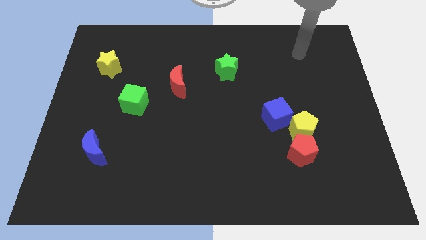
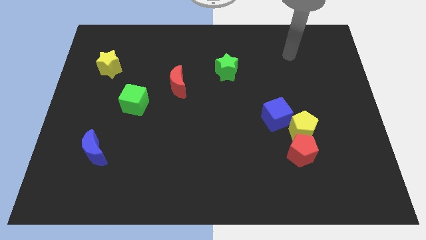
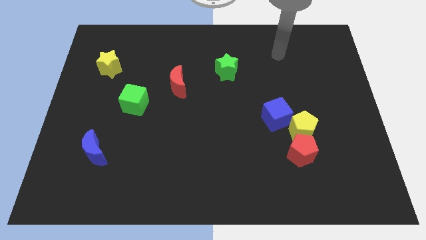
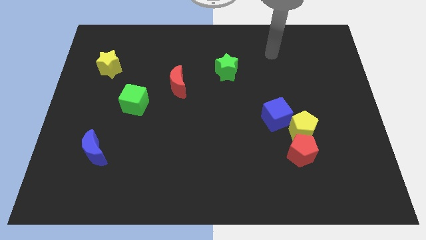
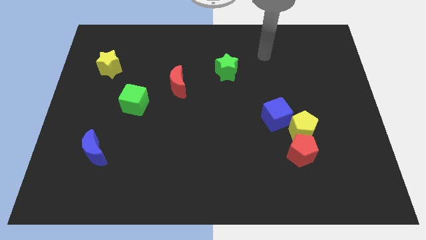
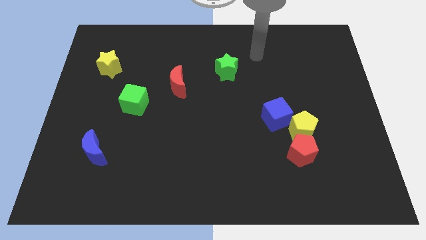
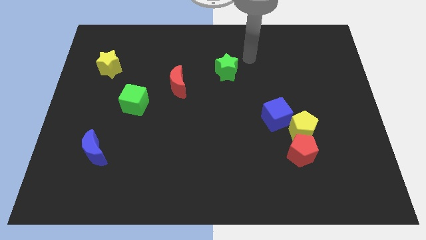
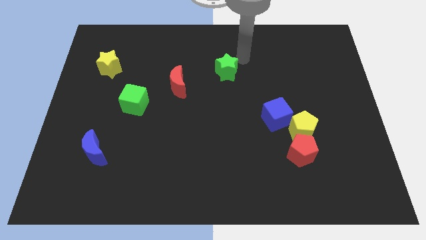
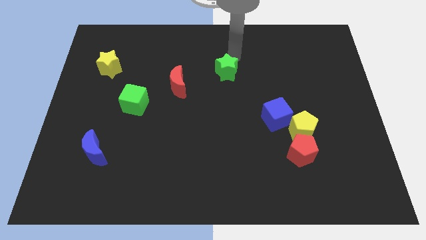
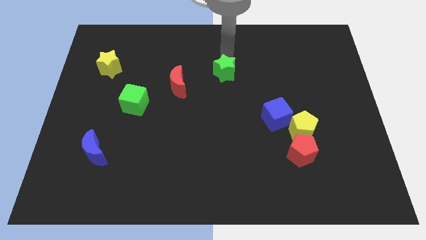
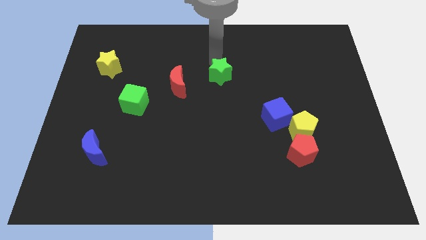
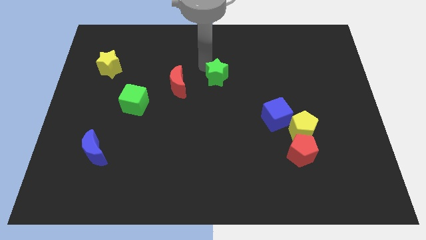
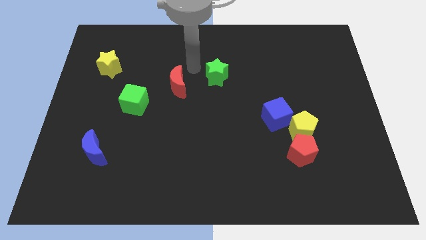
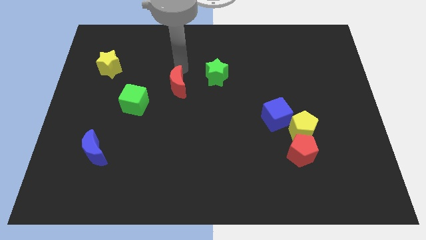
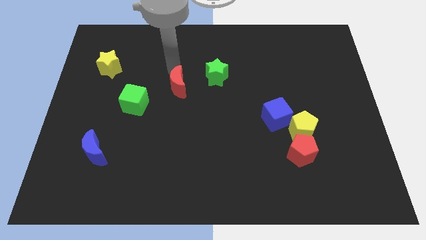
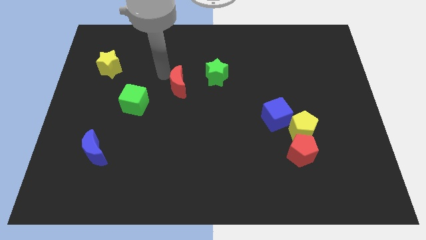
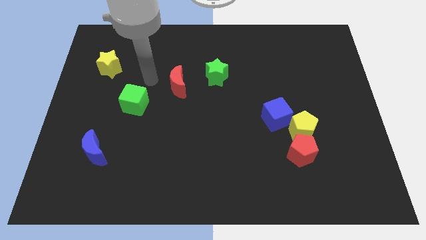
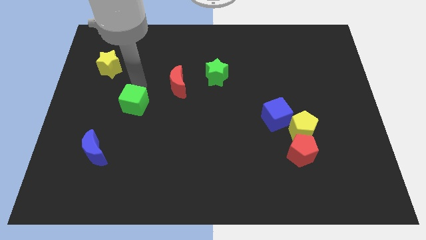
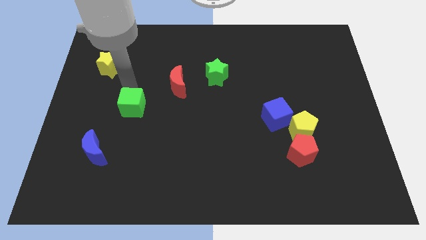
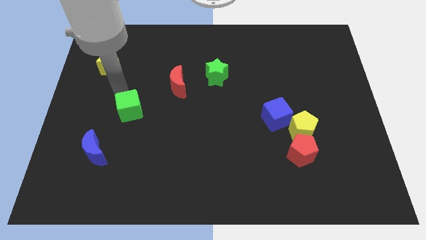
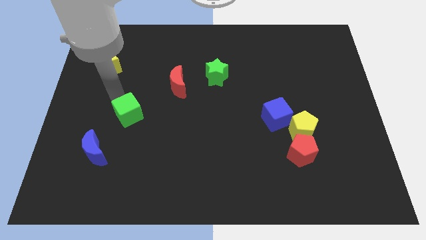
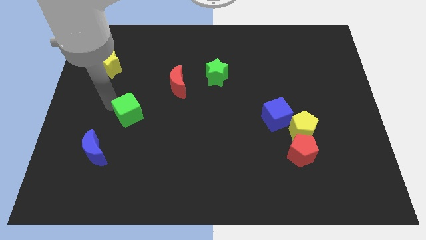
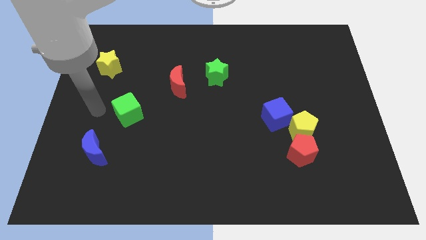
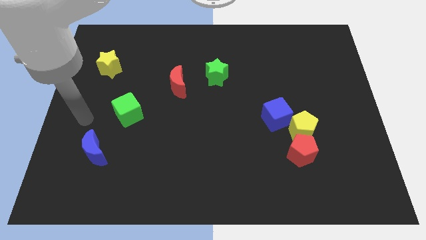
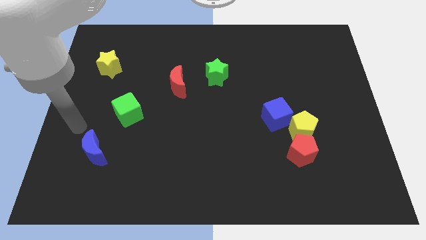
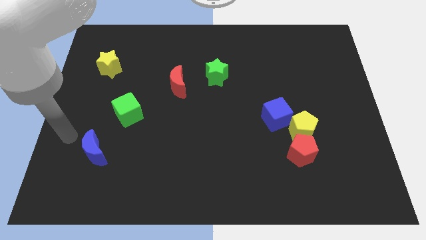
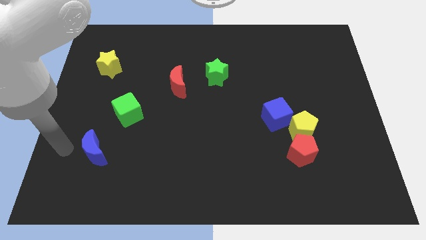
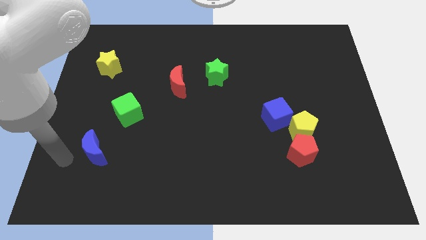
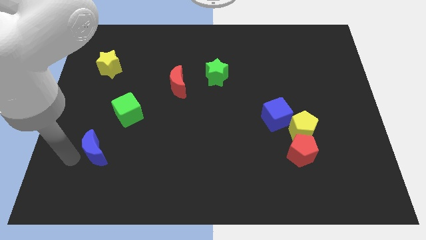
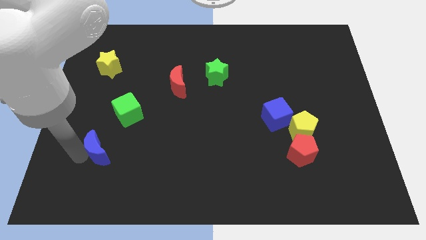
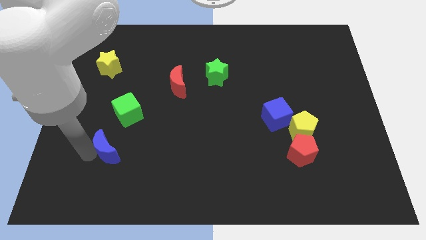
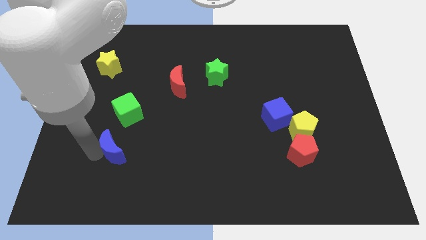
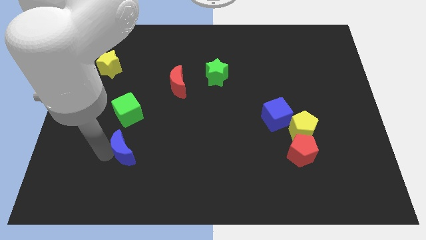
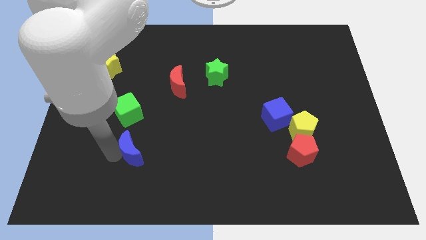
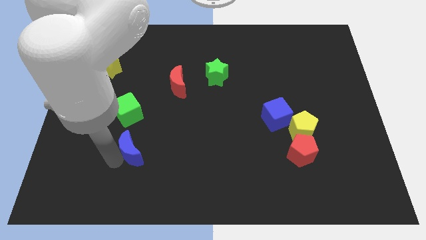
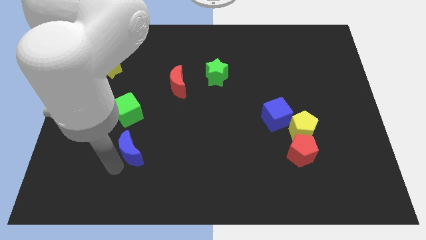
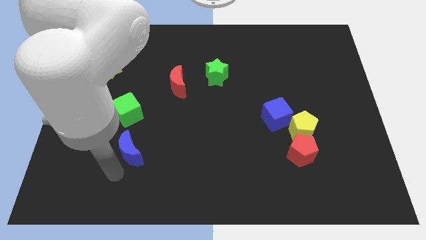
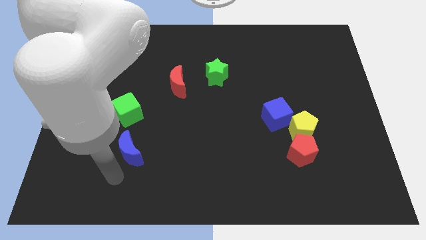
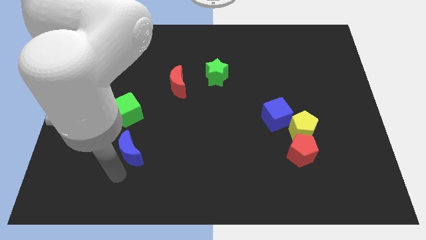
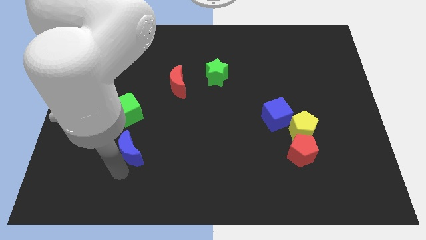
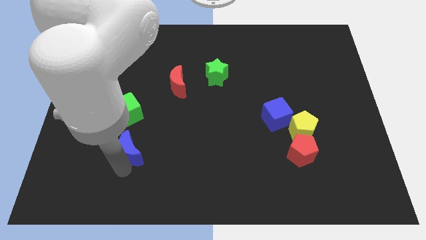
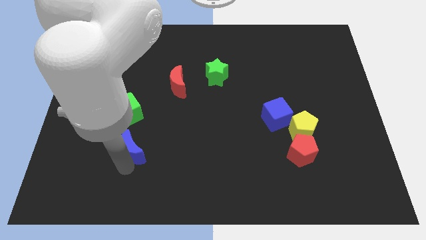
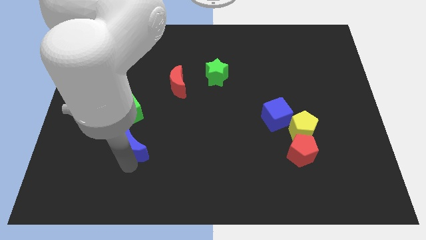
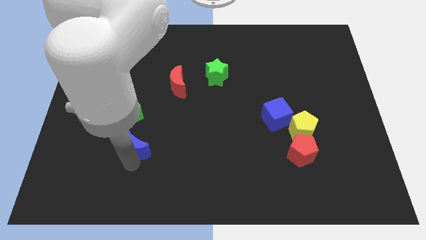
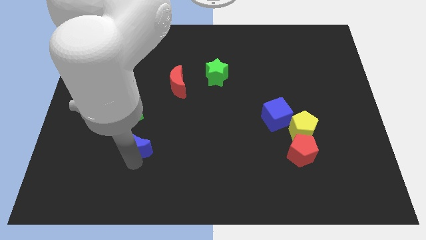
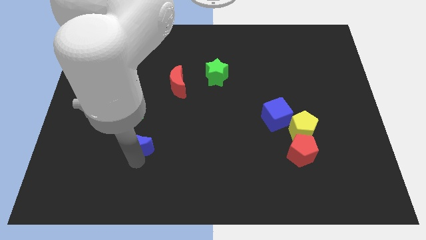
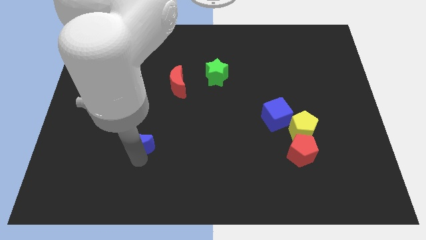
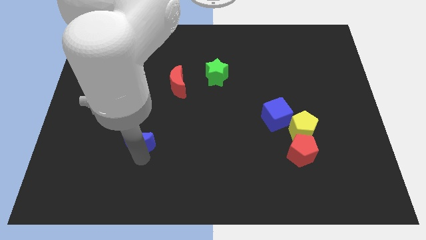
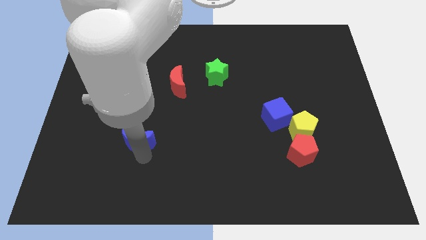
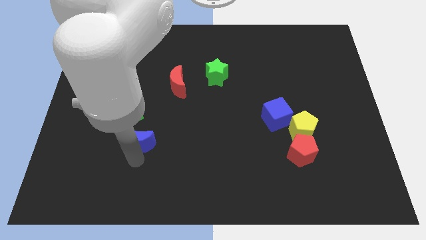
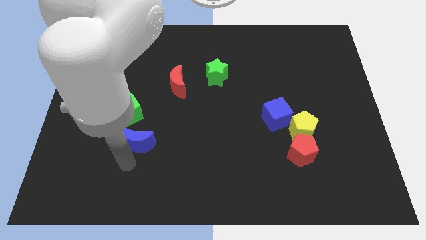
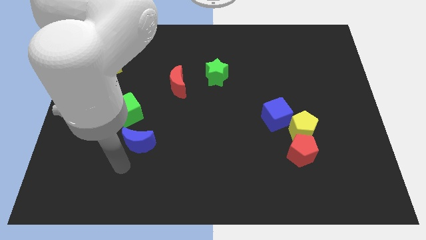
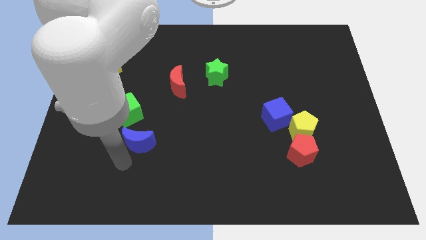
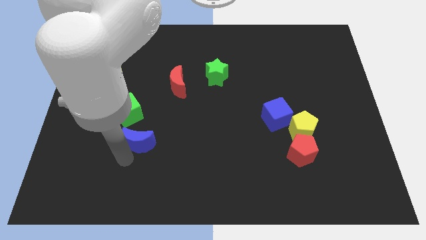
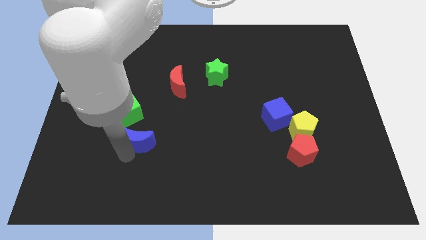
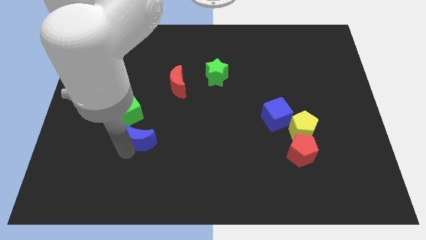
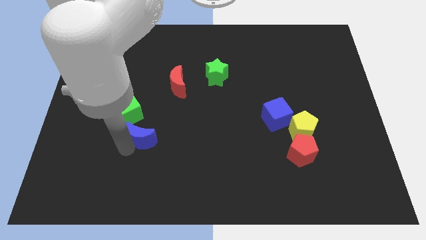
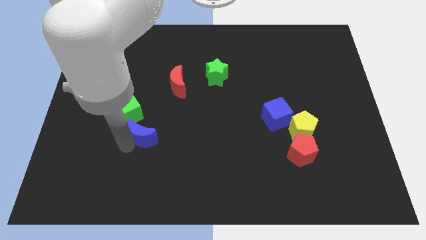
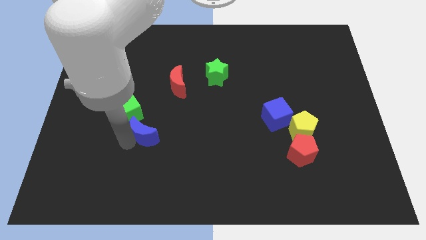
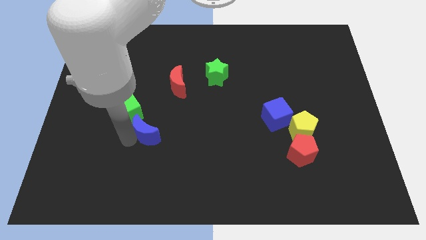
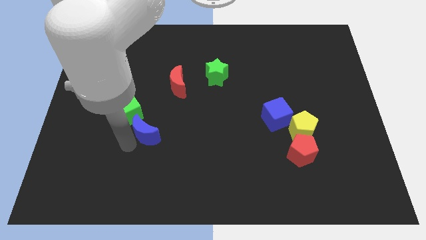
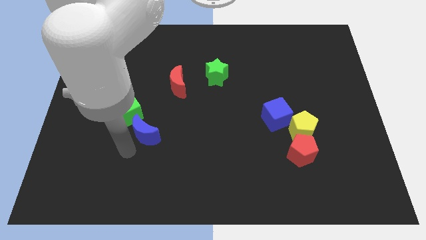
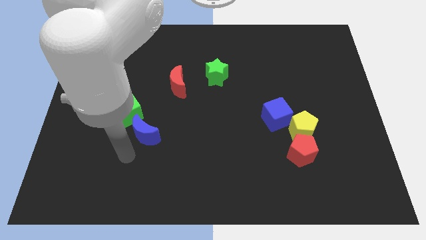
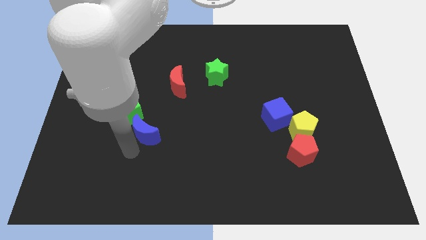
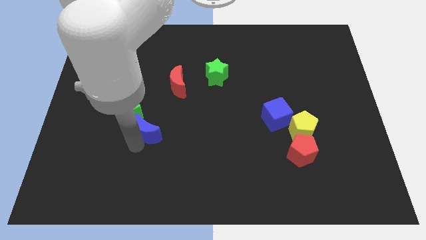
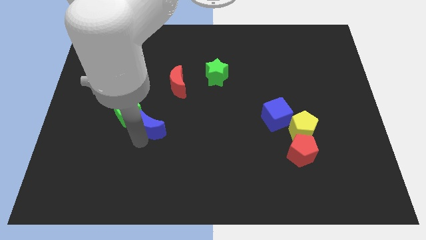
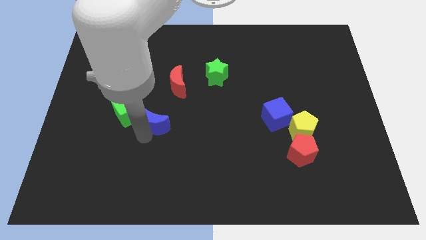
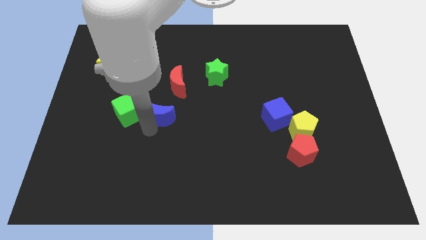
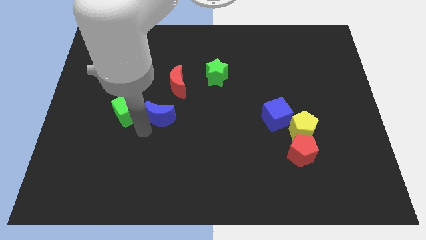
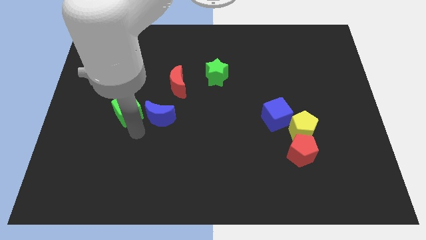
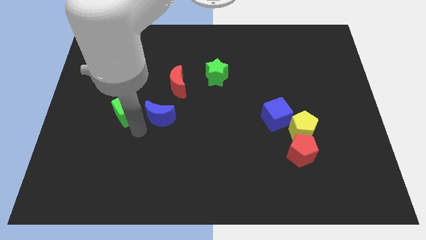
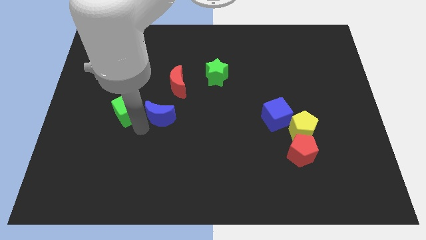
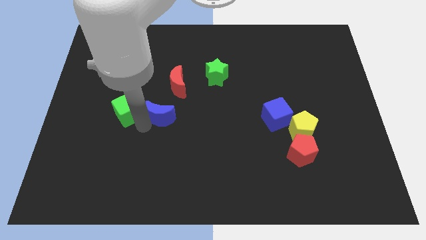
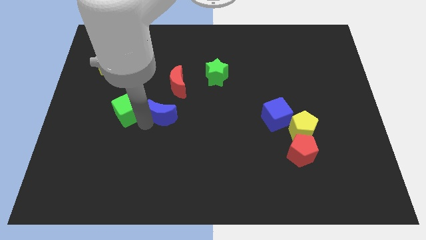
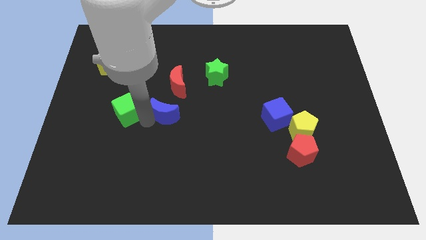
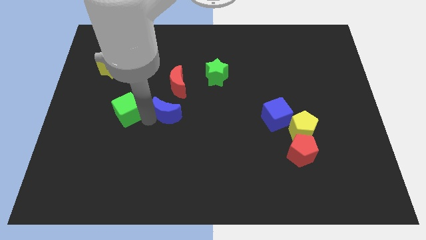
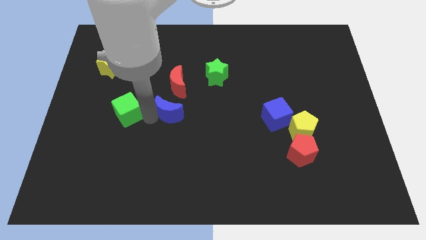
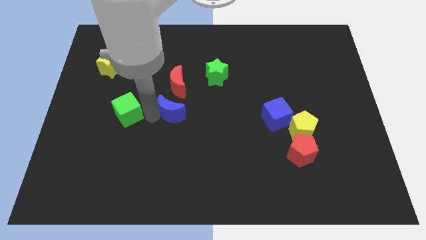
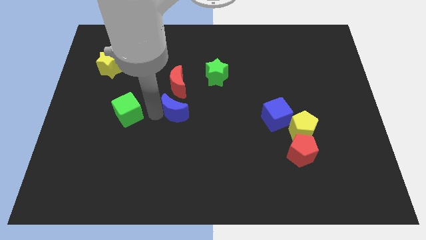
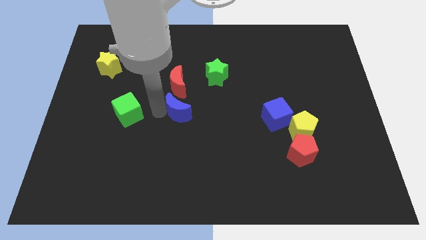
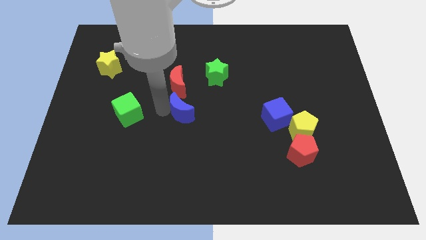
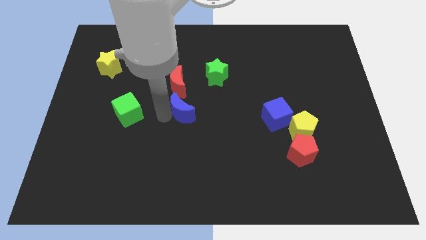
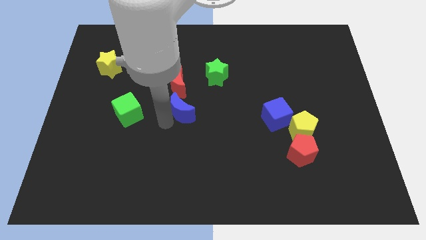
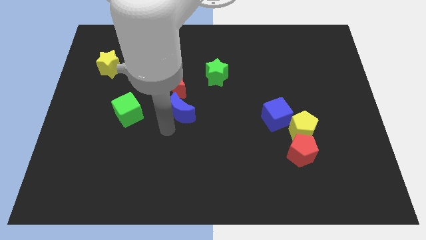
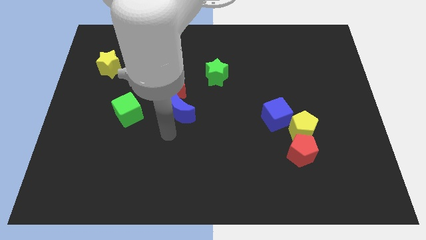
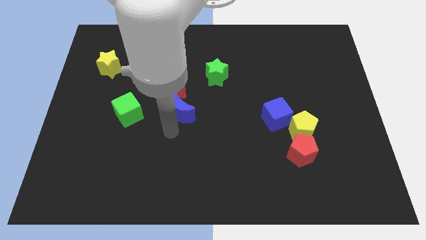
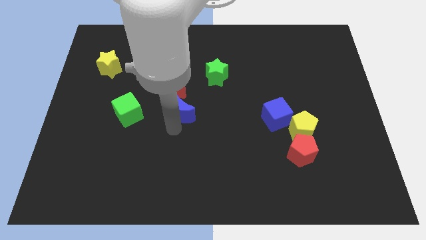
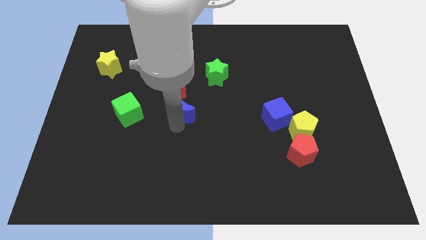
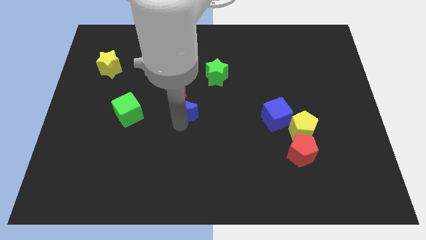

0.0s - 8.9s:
push the blue moon up and right
